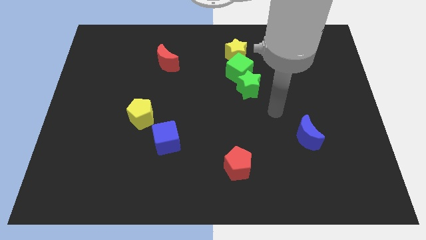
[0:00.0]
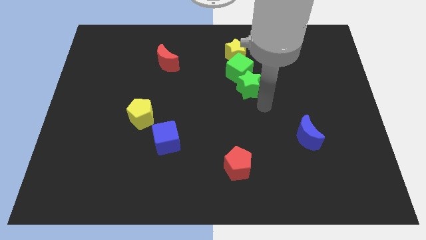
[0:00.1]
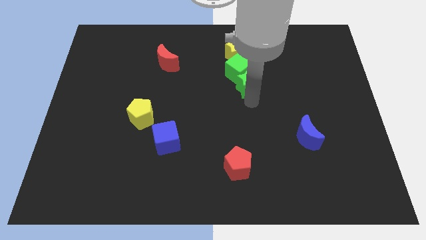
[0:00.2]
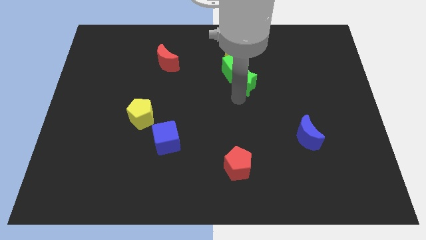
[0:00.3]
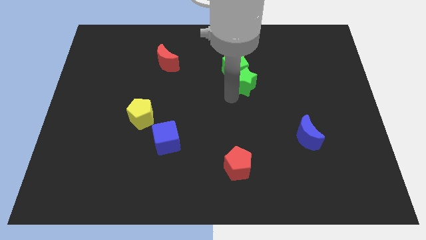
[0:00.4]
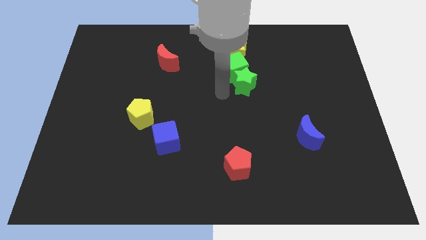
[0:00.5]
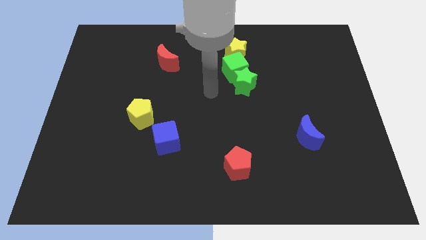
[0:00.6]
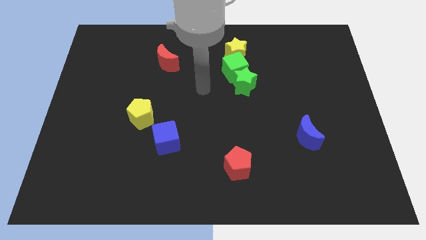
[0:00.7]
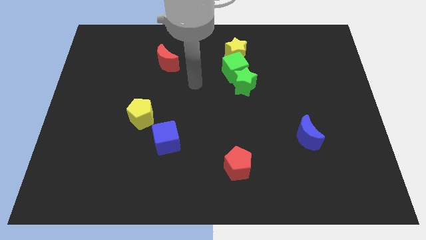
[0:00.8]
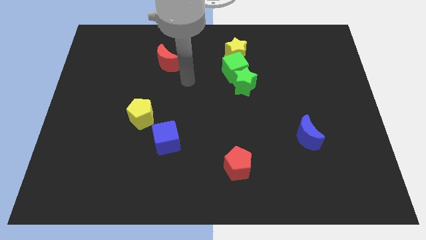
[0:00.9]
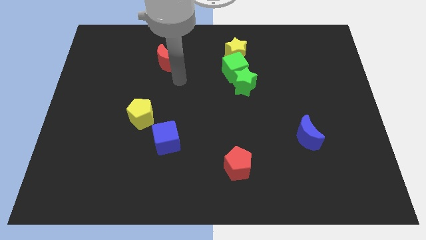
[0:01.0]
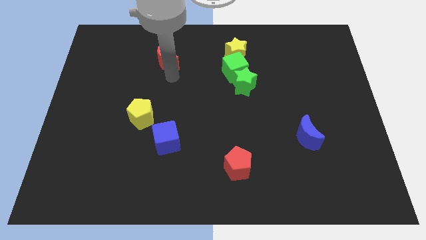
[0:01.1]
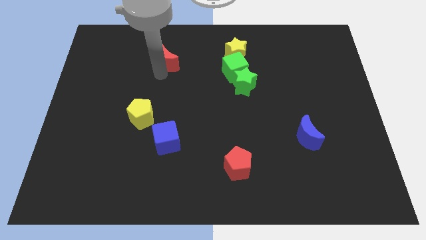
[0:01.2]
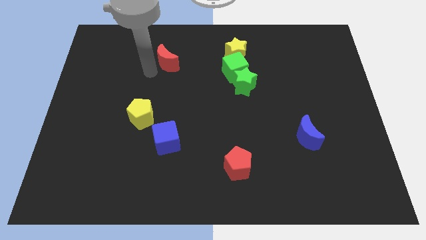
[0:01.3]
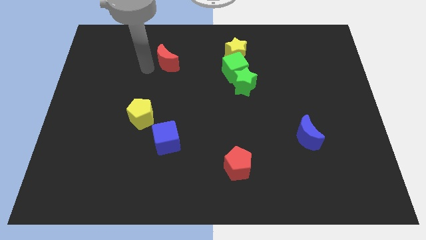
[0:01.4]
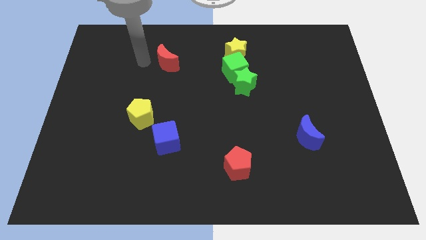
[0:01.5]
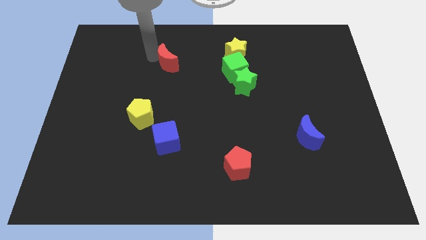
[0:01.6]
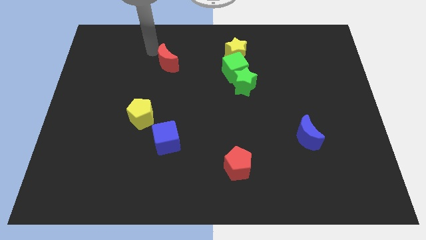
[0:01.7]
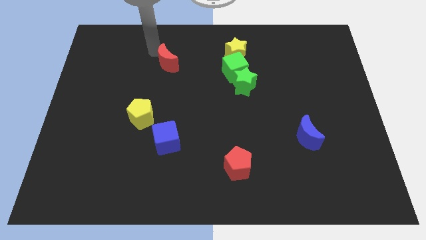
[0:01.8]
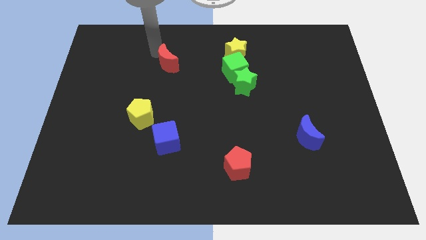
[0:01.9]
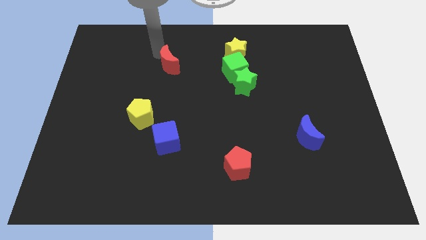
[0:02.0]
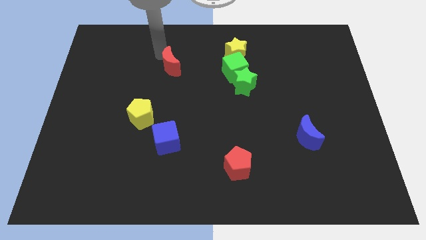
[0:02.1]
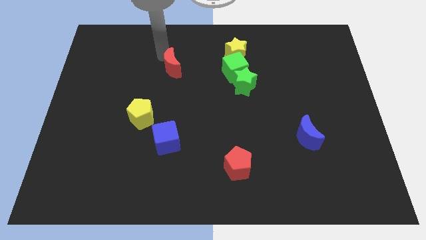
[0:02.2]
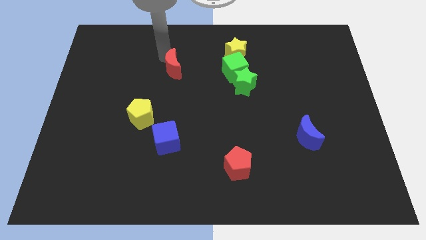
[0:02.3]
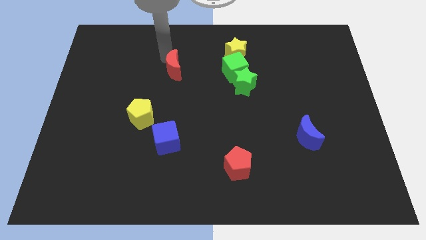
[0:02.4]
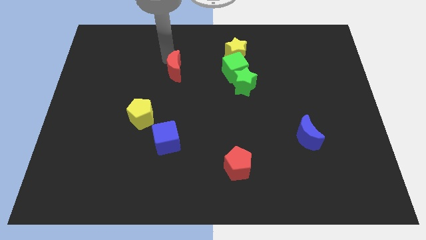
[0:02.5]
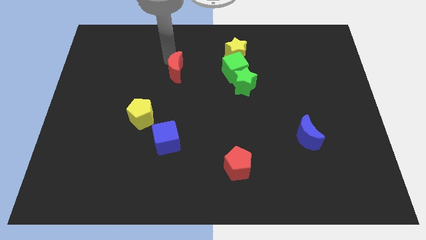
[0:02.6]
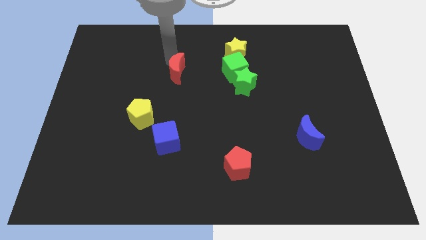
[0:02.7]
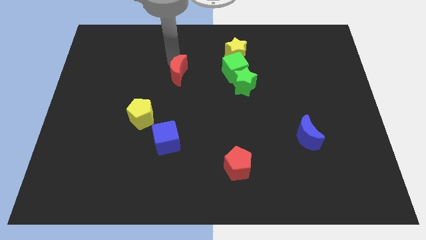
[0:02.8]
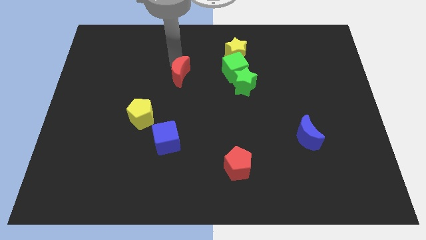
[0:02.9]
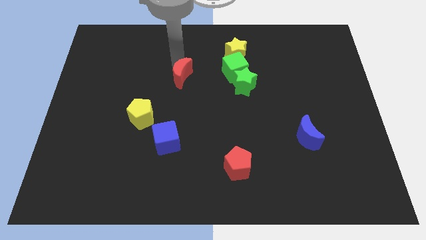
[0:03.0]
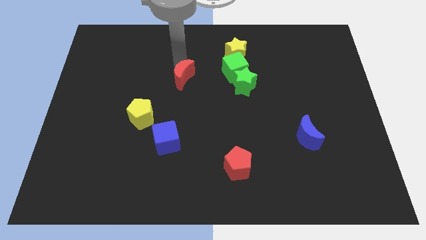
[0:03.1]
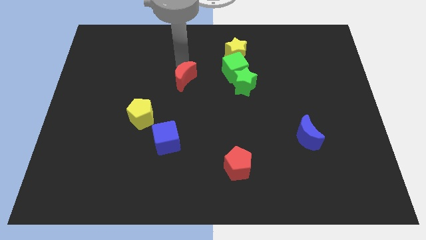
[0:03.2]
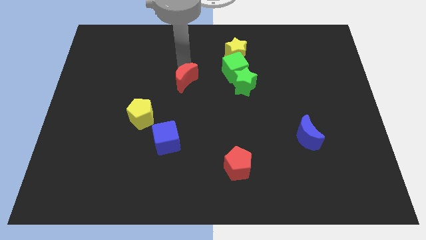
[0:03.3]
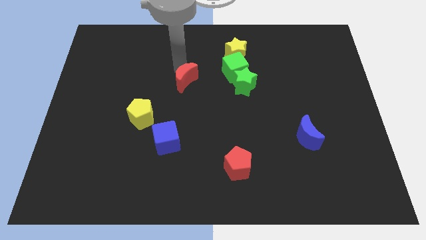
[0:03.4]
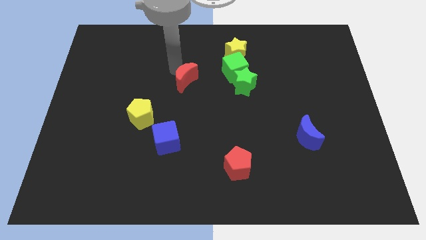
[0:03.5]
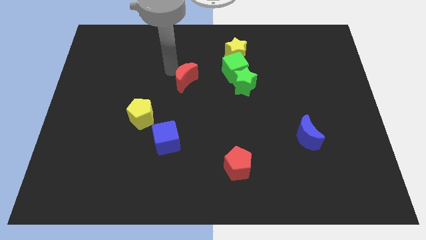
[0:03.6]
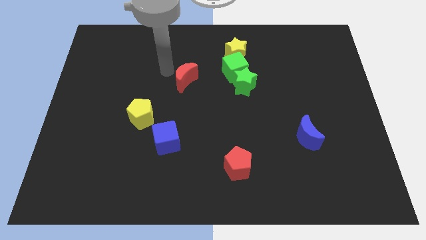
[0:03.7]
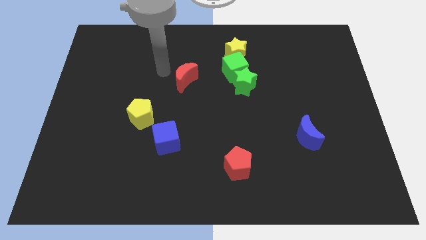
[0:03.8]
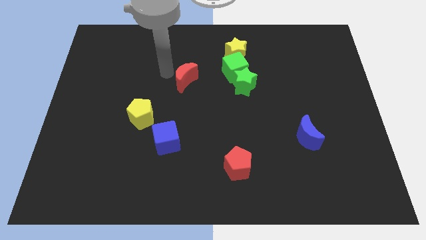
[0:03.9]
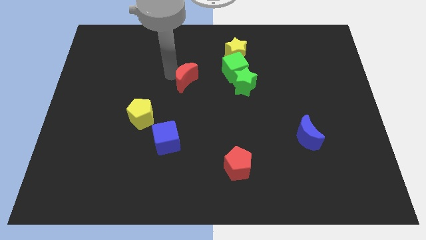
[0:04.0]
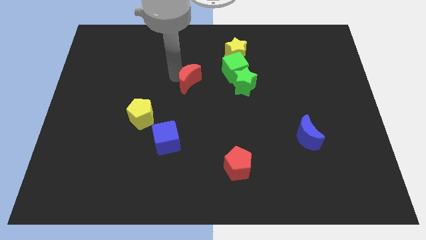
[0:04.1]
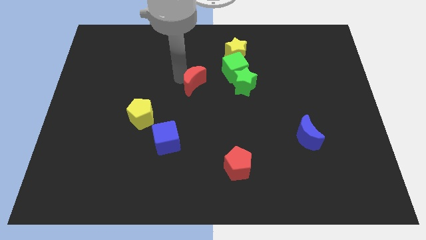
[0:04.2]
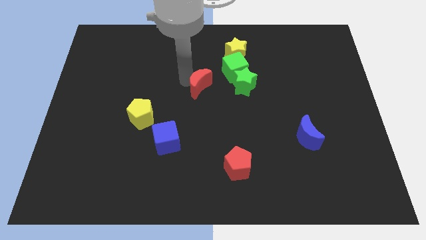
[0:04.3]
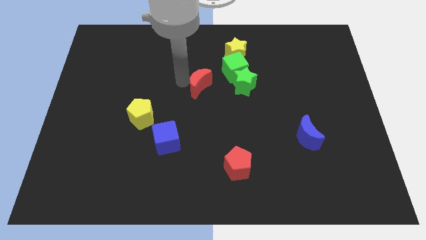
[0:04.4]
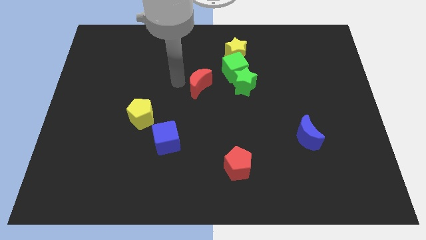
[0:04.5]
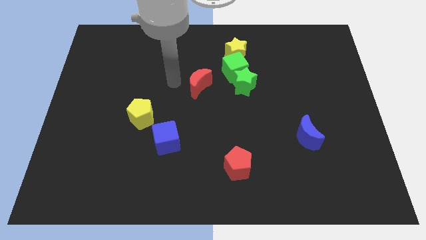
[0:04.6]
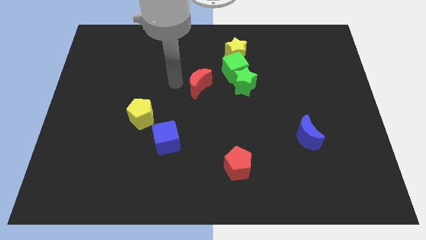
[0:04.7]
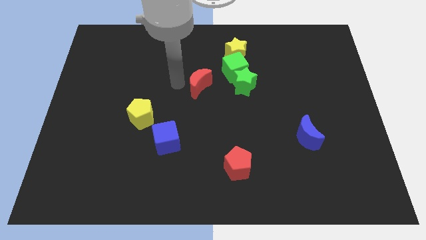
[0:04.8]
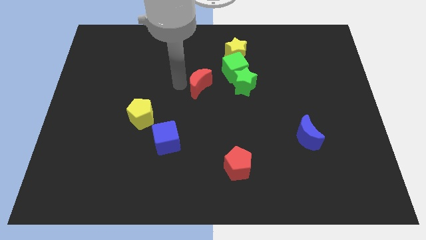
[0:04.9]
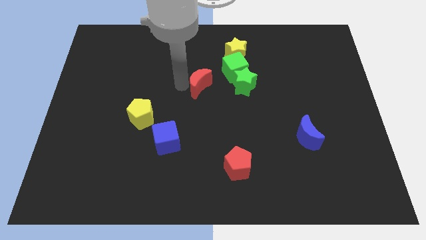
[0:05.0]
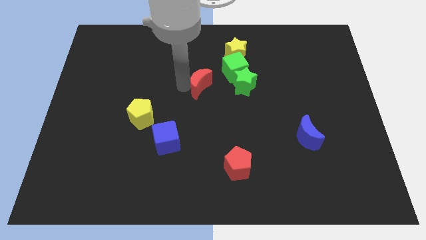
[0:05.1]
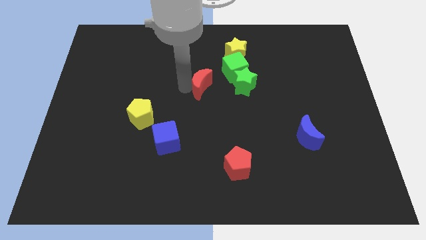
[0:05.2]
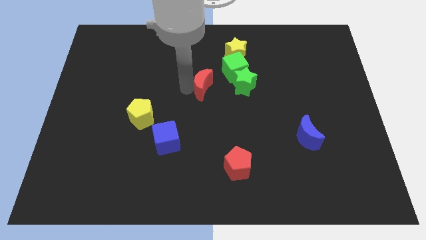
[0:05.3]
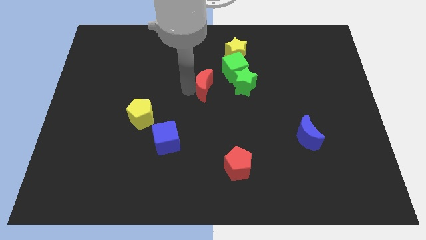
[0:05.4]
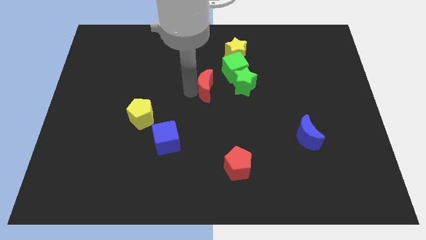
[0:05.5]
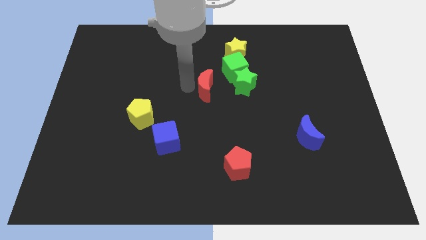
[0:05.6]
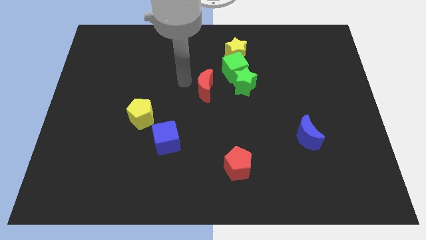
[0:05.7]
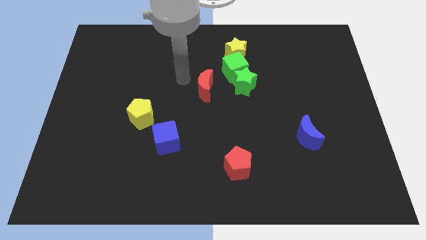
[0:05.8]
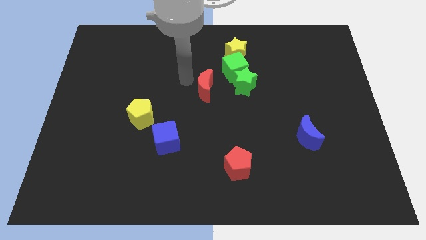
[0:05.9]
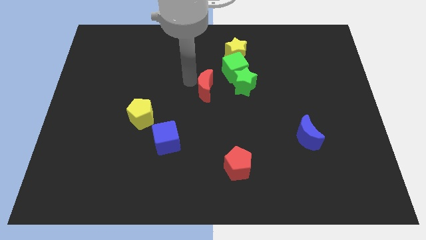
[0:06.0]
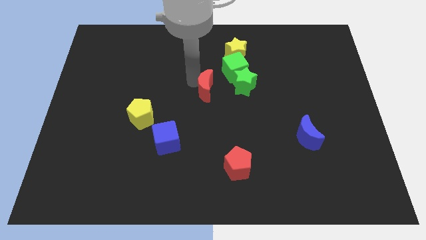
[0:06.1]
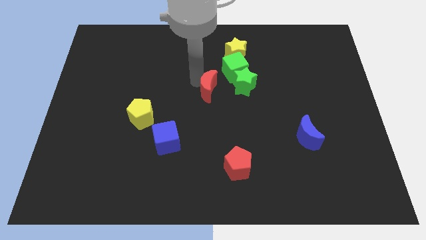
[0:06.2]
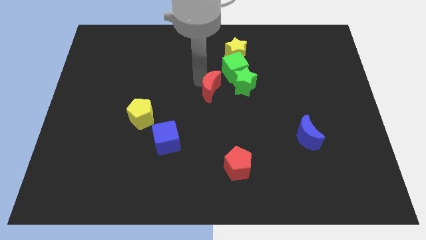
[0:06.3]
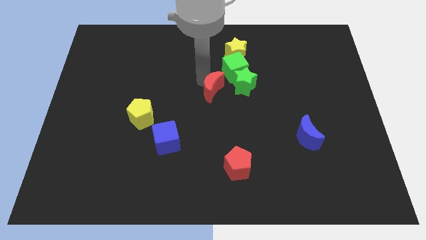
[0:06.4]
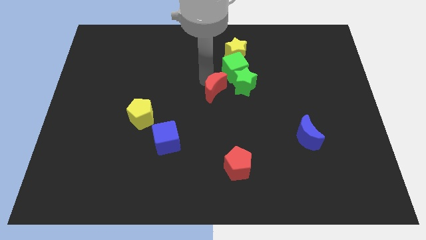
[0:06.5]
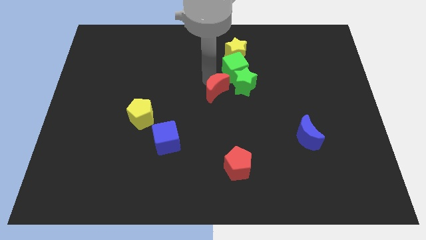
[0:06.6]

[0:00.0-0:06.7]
slide the red moon to the bottom of the green cube

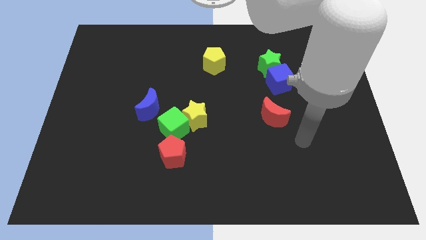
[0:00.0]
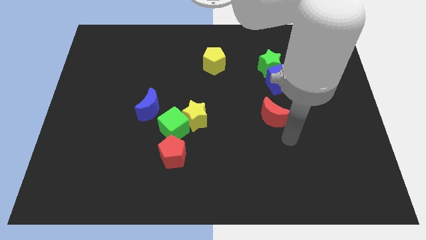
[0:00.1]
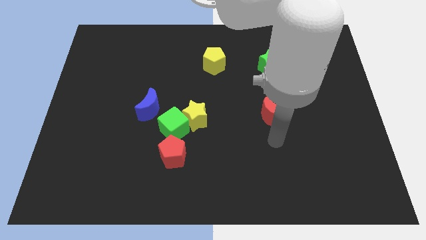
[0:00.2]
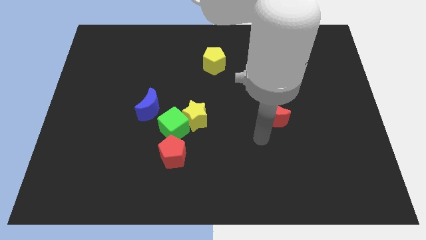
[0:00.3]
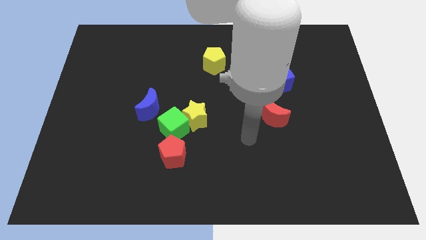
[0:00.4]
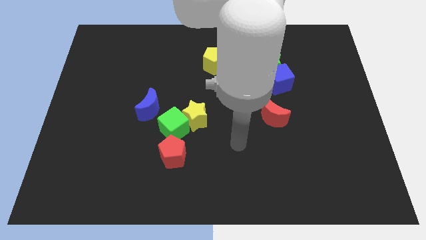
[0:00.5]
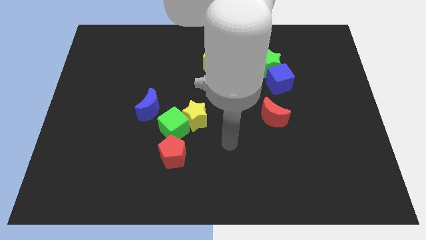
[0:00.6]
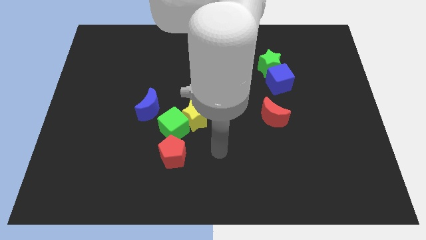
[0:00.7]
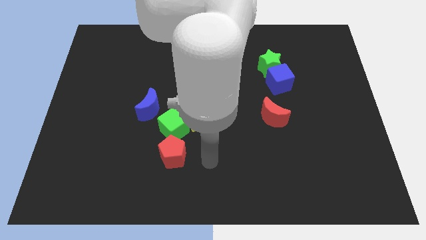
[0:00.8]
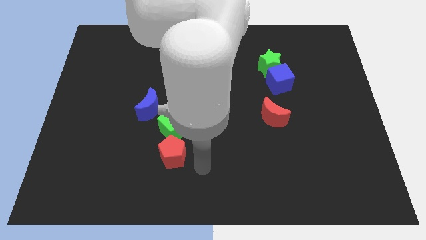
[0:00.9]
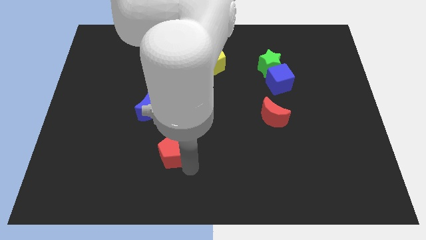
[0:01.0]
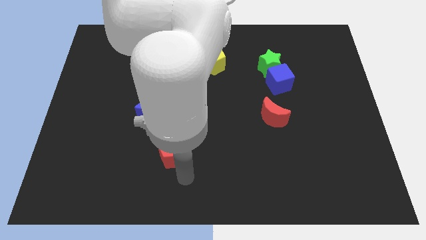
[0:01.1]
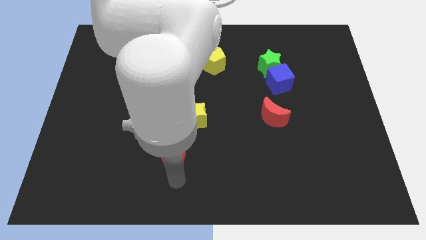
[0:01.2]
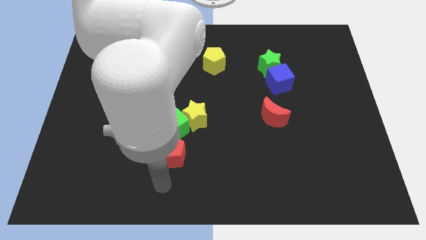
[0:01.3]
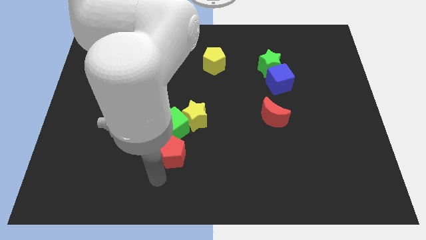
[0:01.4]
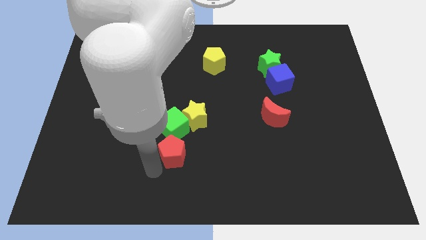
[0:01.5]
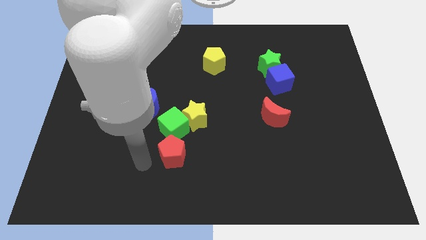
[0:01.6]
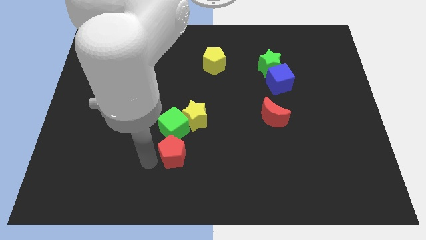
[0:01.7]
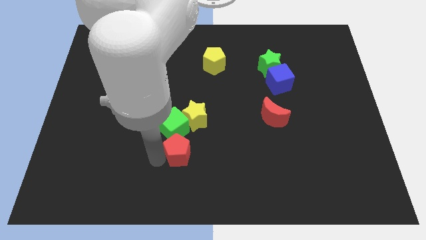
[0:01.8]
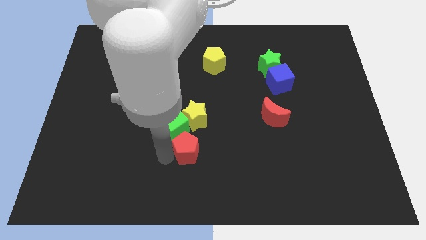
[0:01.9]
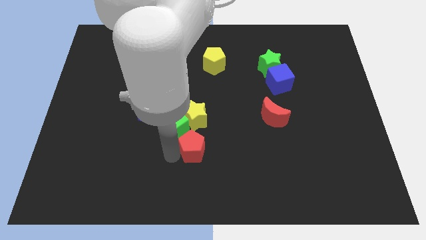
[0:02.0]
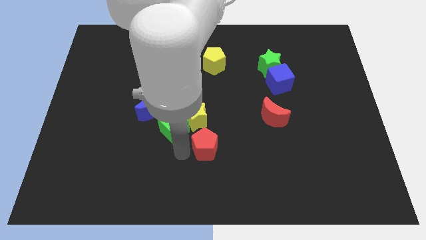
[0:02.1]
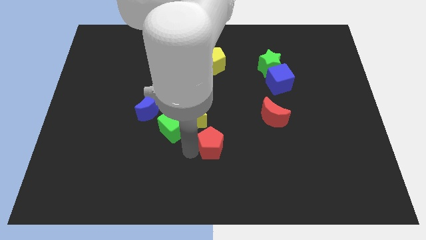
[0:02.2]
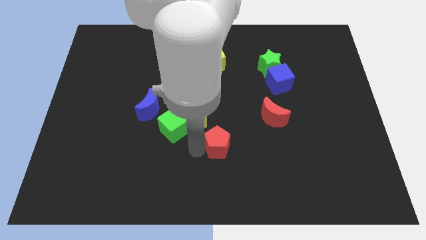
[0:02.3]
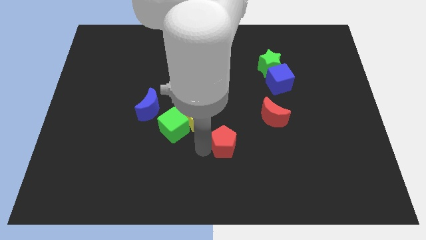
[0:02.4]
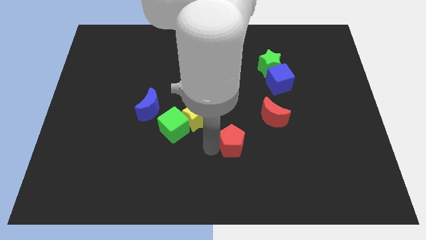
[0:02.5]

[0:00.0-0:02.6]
push the red pentagon to the bottom left of the red moon
